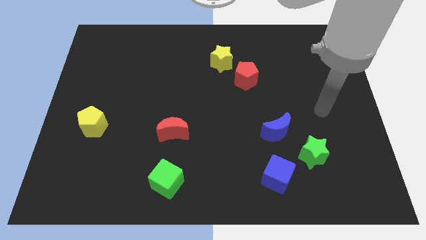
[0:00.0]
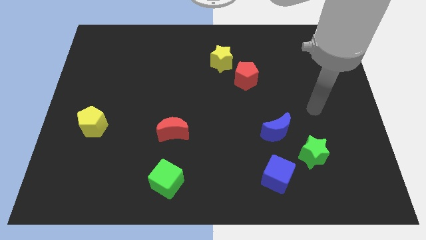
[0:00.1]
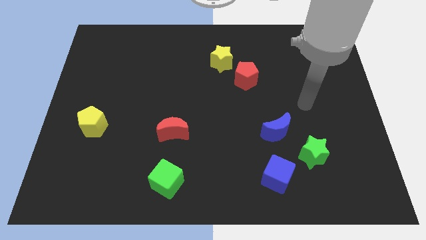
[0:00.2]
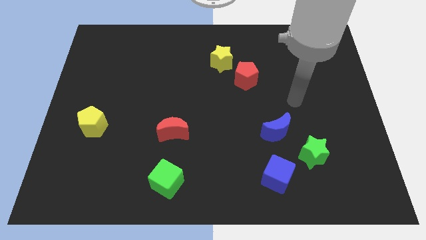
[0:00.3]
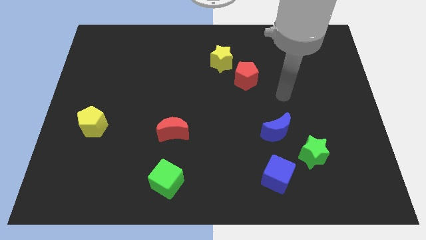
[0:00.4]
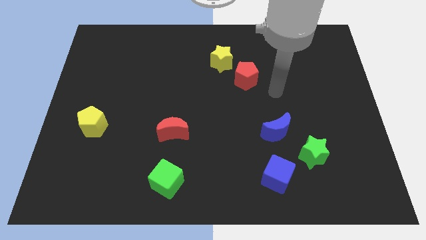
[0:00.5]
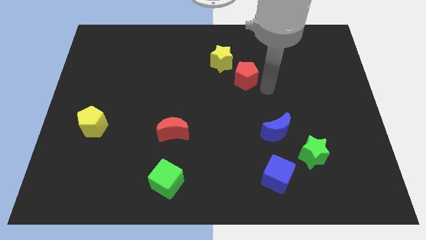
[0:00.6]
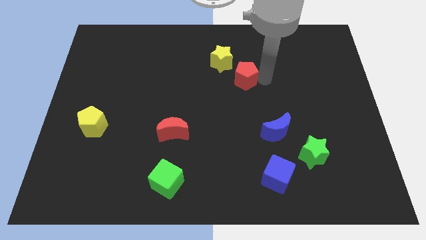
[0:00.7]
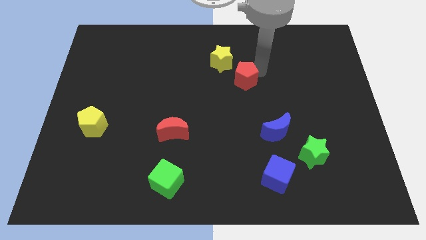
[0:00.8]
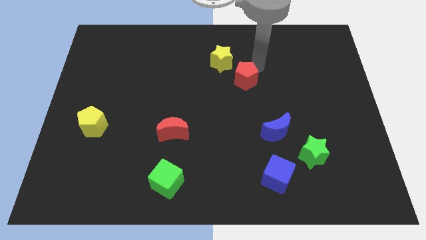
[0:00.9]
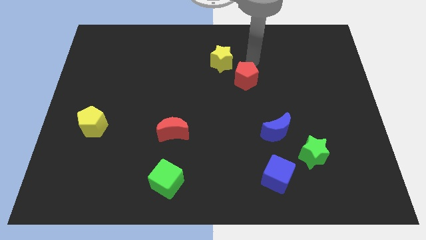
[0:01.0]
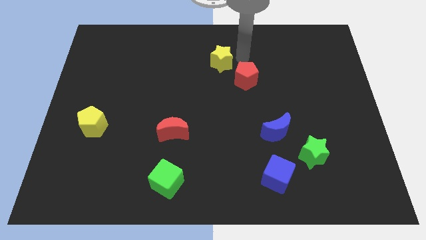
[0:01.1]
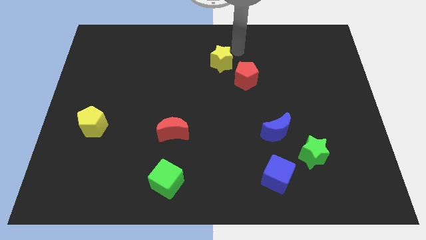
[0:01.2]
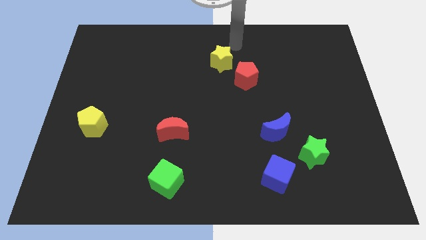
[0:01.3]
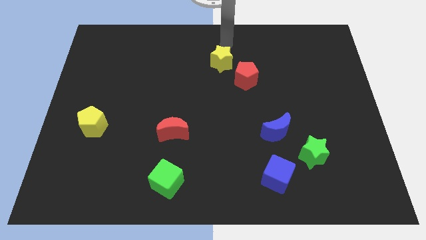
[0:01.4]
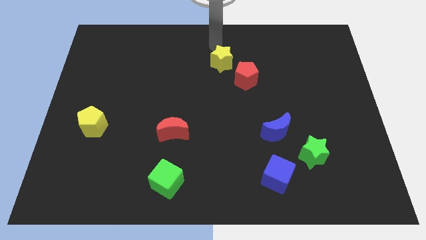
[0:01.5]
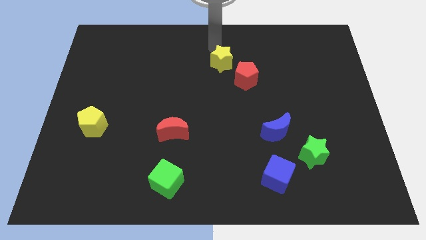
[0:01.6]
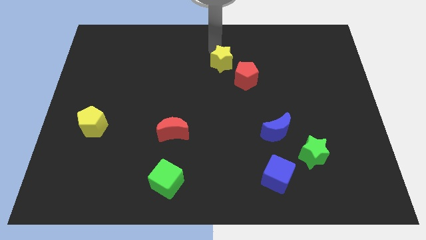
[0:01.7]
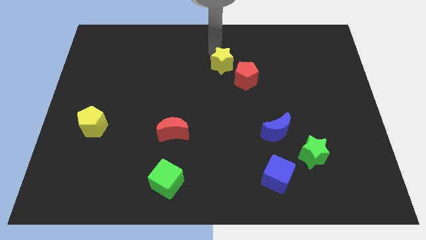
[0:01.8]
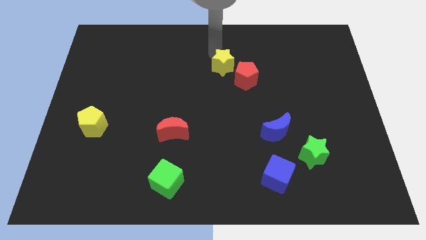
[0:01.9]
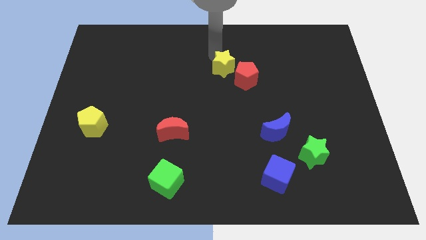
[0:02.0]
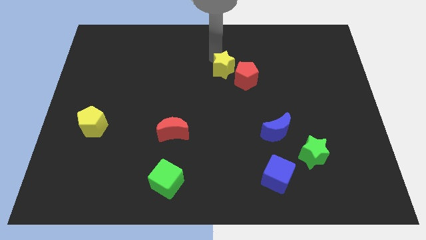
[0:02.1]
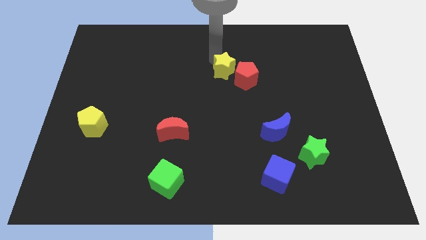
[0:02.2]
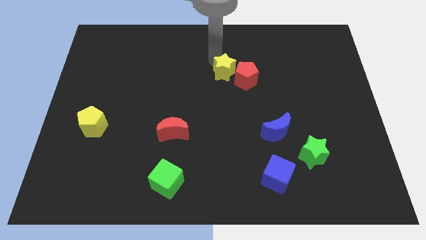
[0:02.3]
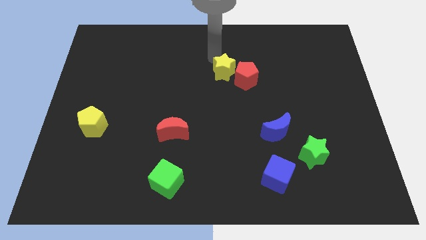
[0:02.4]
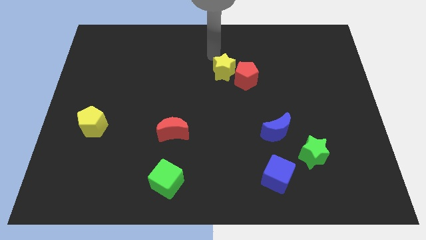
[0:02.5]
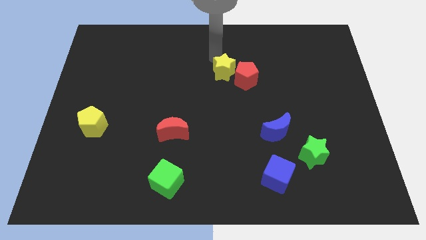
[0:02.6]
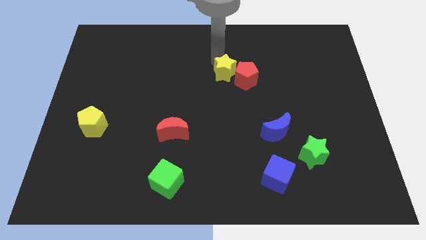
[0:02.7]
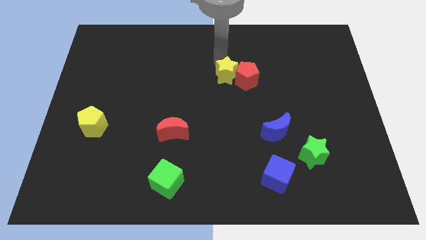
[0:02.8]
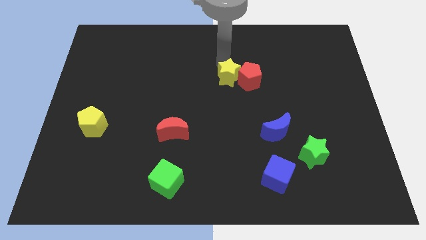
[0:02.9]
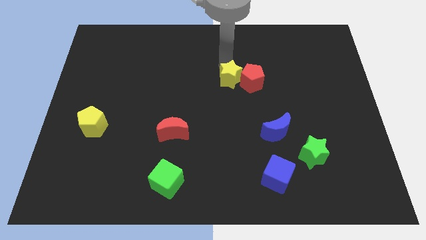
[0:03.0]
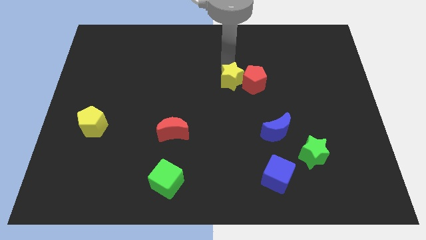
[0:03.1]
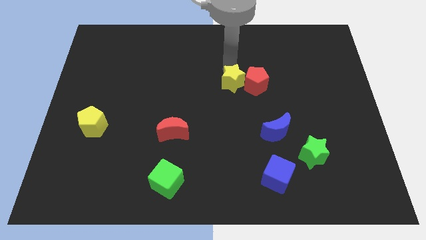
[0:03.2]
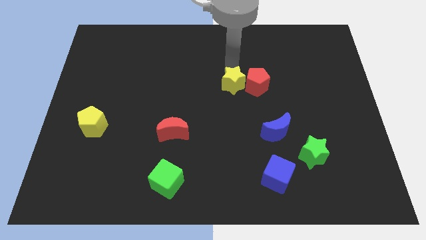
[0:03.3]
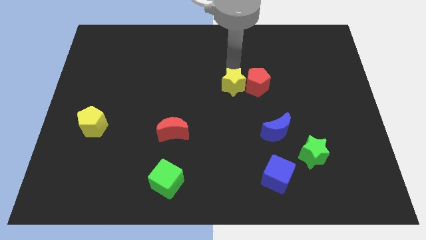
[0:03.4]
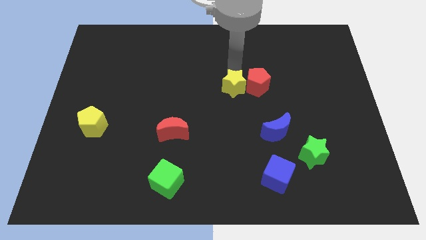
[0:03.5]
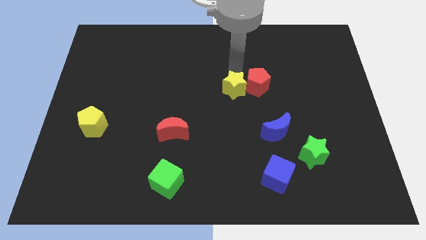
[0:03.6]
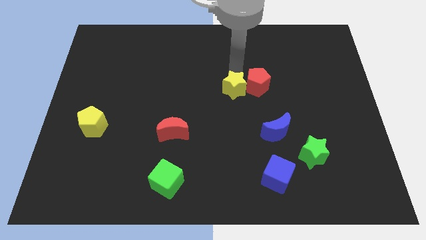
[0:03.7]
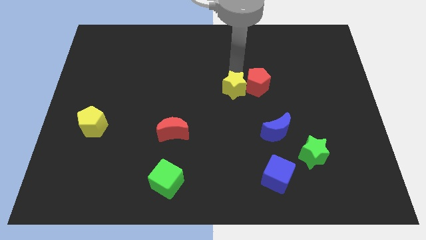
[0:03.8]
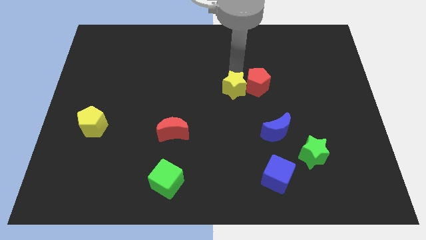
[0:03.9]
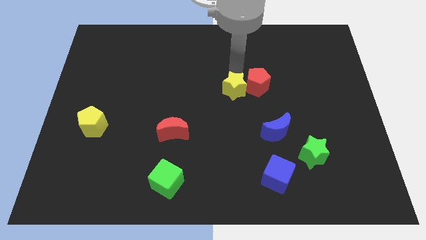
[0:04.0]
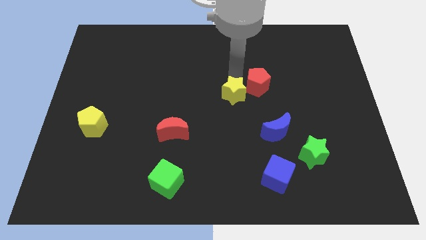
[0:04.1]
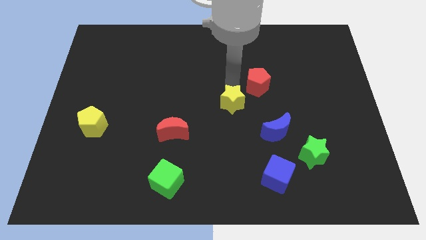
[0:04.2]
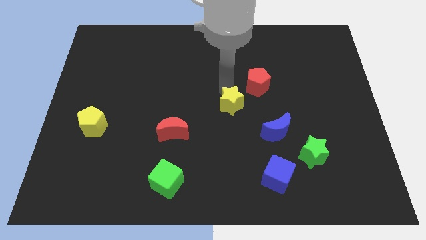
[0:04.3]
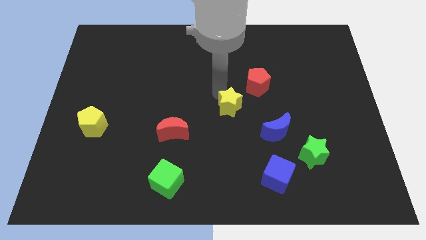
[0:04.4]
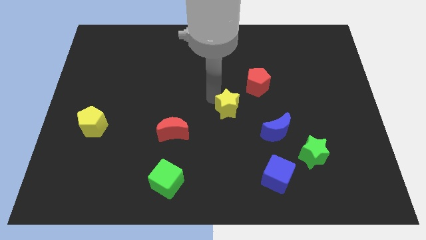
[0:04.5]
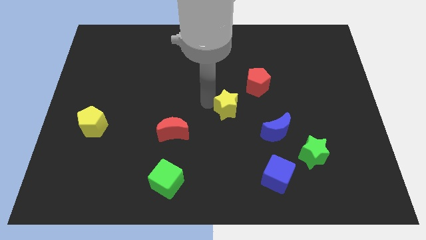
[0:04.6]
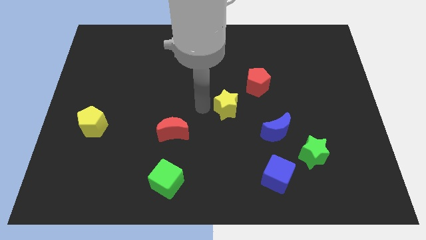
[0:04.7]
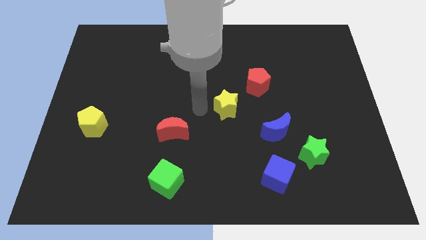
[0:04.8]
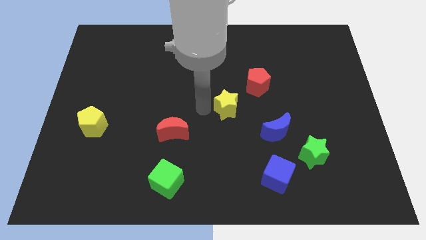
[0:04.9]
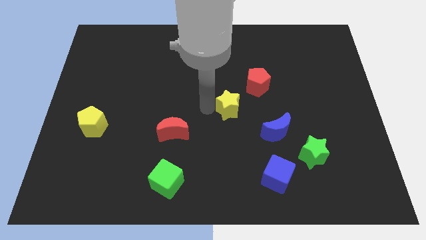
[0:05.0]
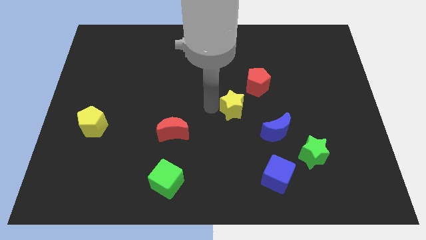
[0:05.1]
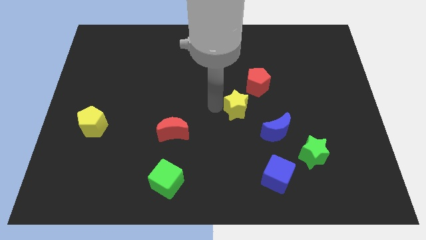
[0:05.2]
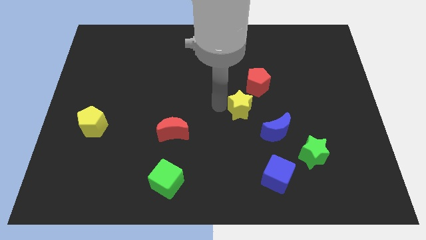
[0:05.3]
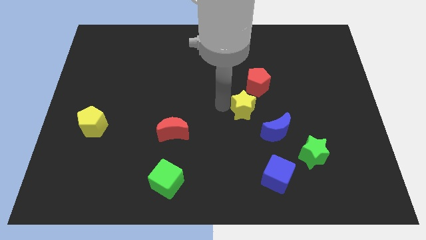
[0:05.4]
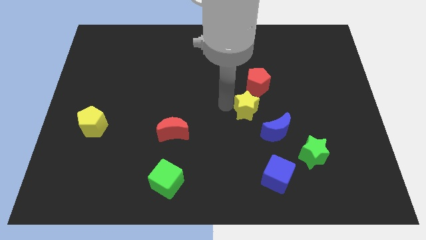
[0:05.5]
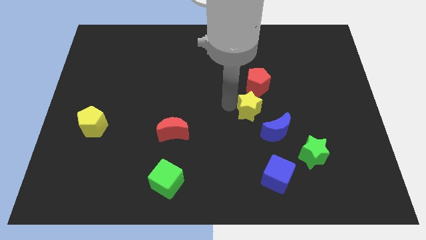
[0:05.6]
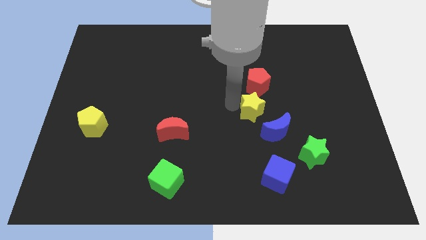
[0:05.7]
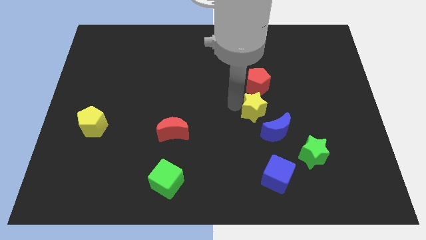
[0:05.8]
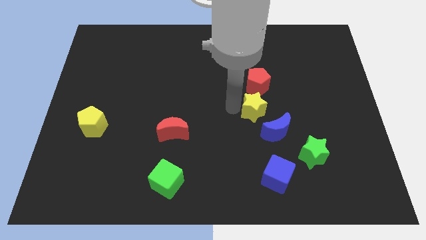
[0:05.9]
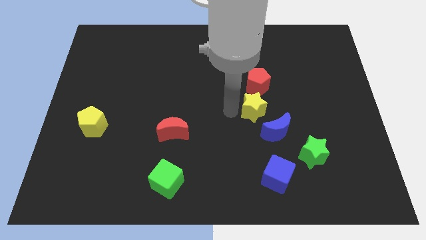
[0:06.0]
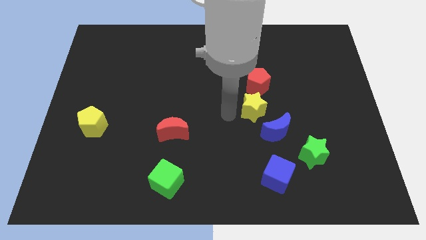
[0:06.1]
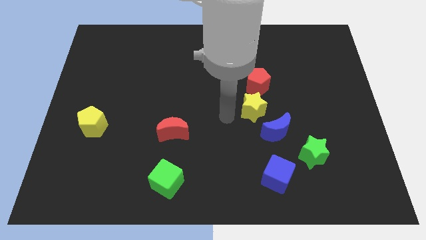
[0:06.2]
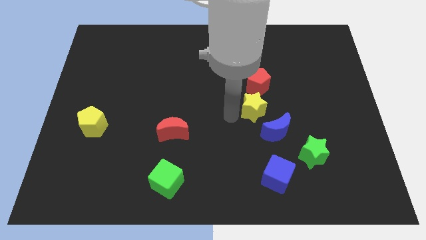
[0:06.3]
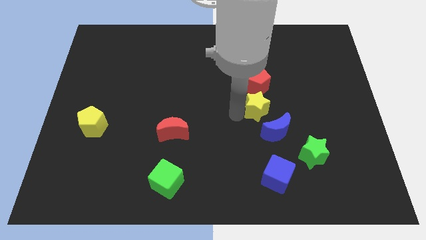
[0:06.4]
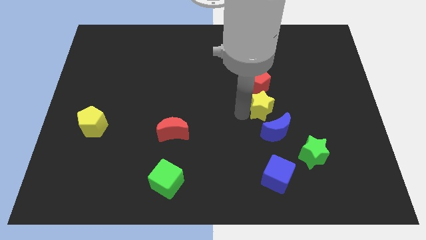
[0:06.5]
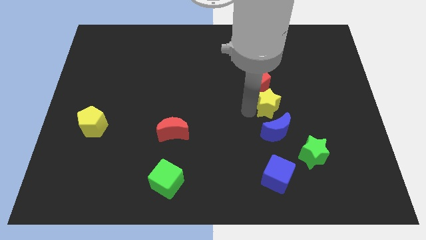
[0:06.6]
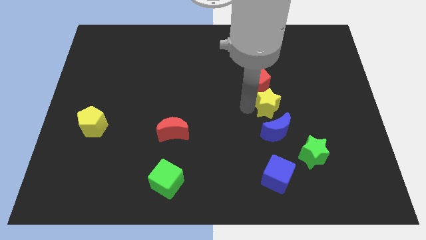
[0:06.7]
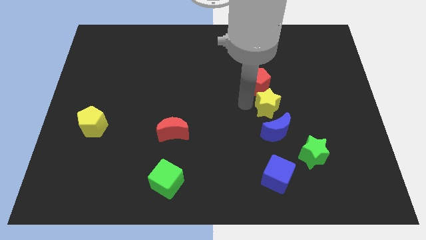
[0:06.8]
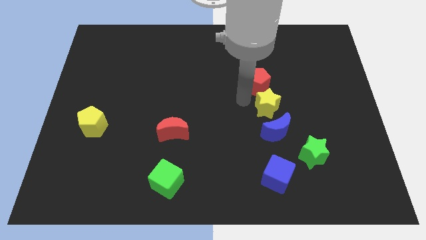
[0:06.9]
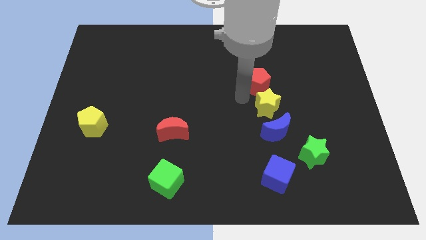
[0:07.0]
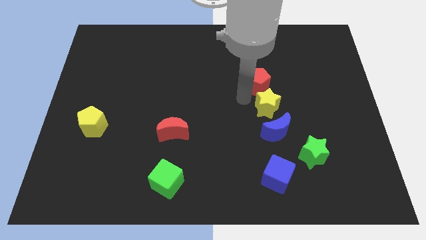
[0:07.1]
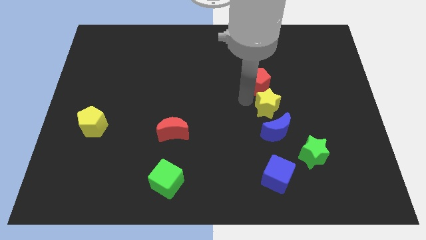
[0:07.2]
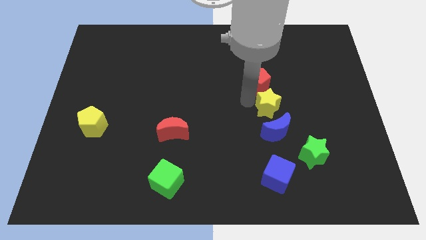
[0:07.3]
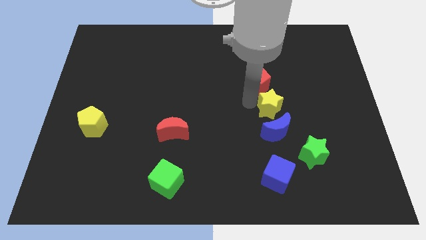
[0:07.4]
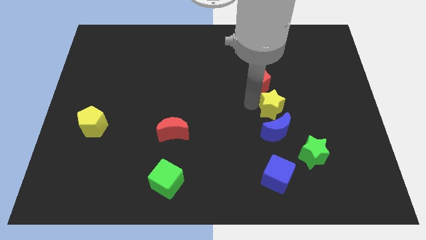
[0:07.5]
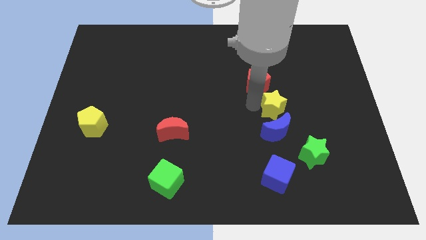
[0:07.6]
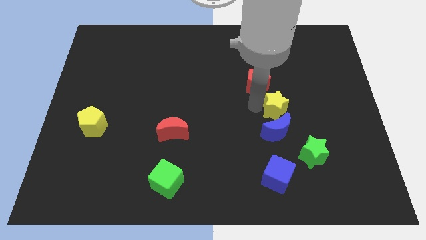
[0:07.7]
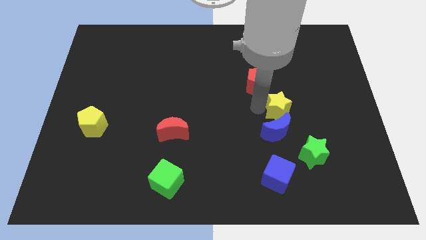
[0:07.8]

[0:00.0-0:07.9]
slide the yellow star downwards and to the right

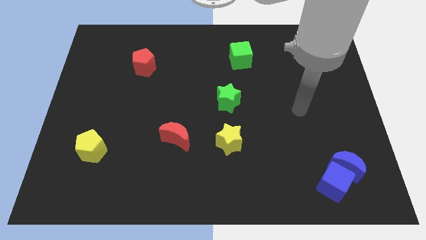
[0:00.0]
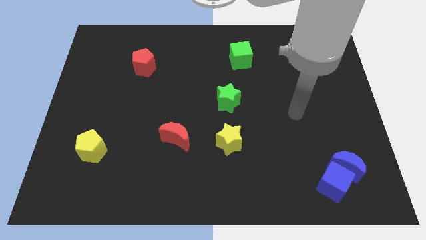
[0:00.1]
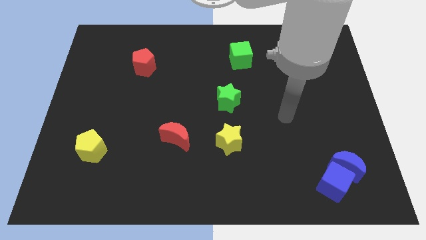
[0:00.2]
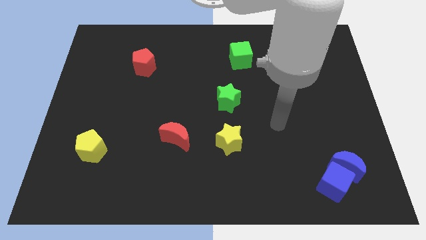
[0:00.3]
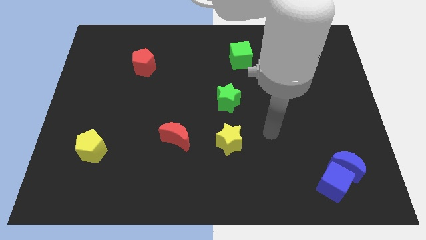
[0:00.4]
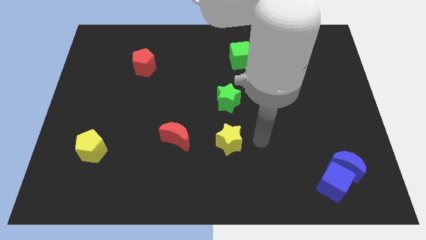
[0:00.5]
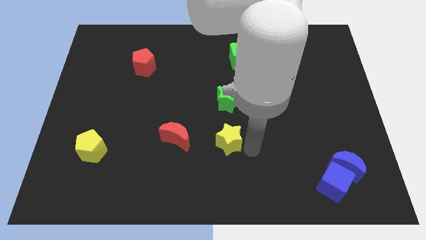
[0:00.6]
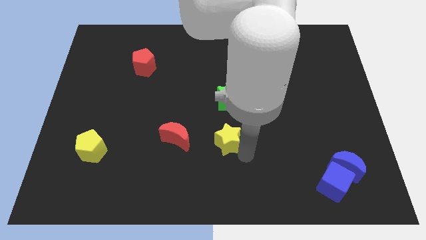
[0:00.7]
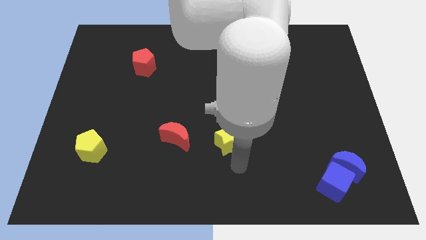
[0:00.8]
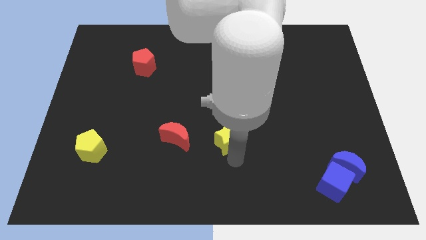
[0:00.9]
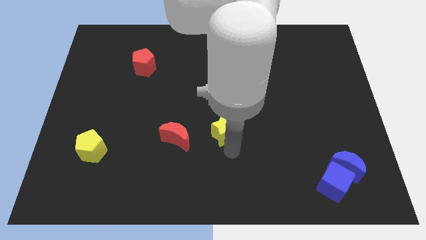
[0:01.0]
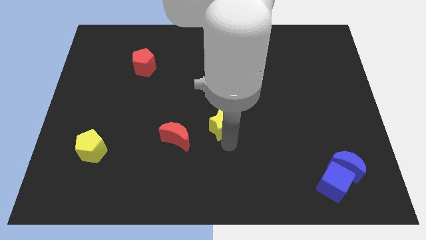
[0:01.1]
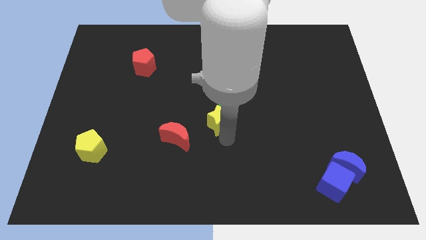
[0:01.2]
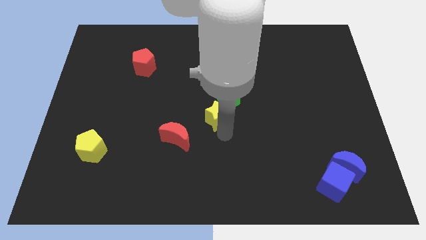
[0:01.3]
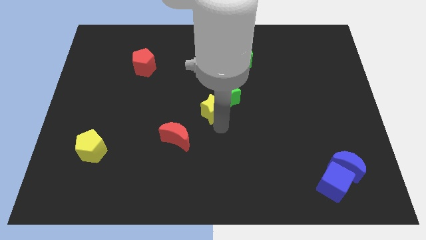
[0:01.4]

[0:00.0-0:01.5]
slightly push the yellow star upwards
